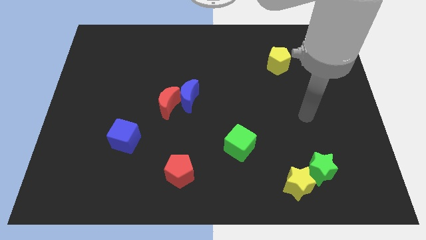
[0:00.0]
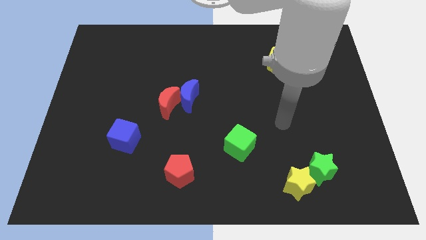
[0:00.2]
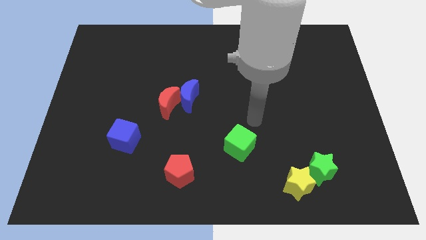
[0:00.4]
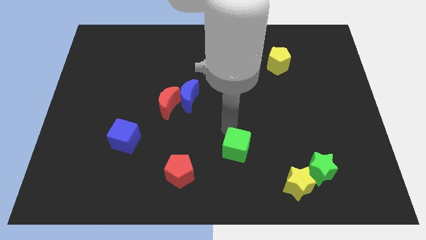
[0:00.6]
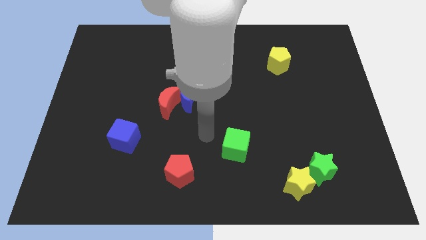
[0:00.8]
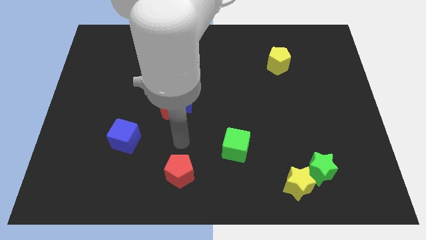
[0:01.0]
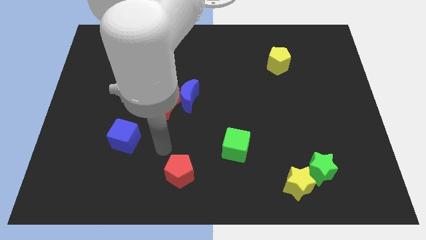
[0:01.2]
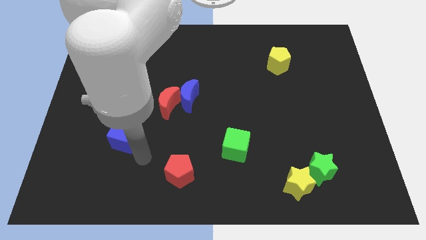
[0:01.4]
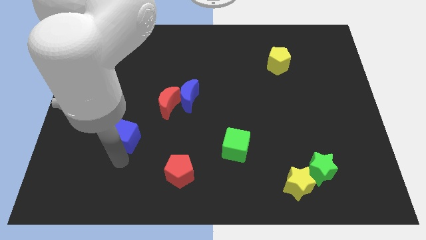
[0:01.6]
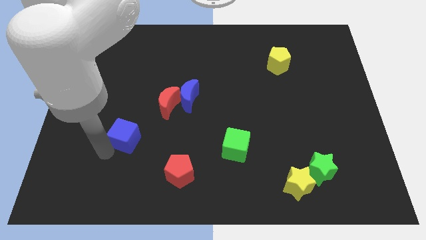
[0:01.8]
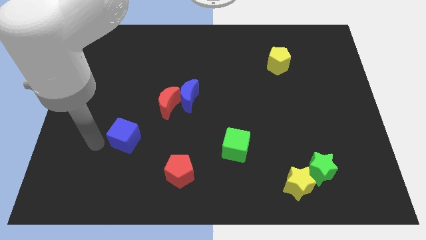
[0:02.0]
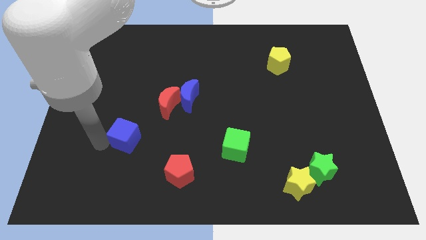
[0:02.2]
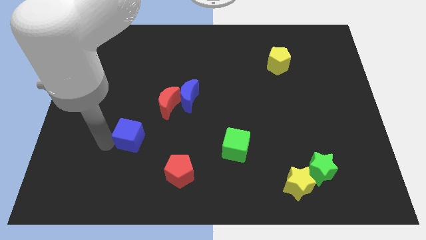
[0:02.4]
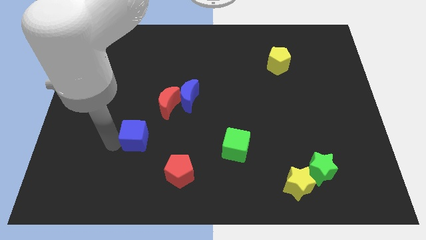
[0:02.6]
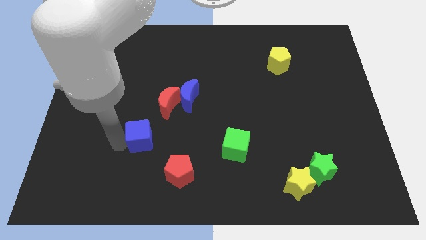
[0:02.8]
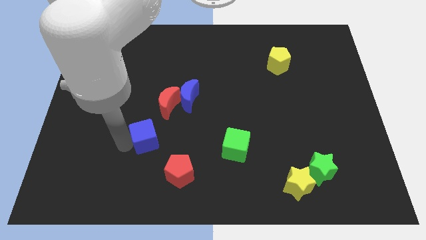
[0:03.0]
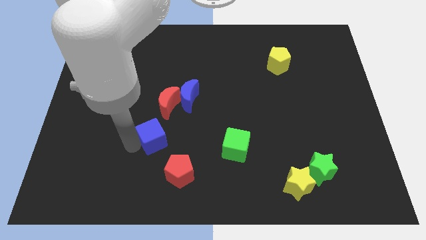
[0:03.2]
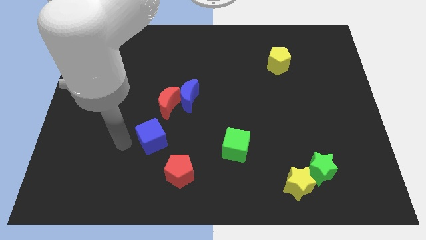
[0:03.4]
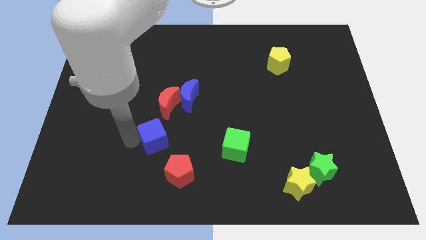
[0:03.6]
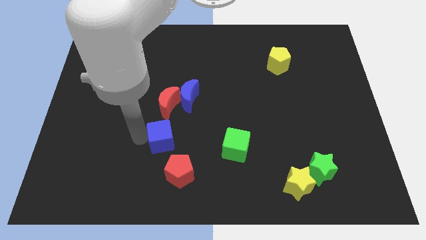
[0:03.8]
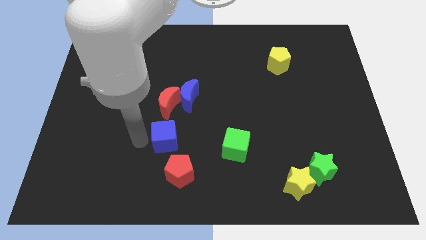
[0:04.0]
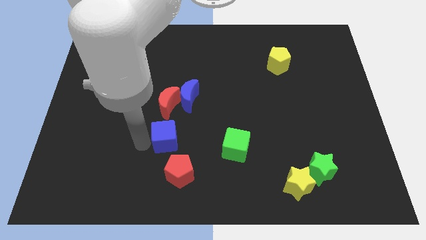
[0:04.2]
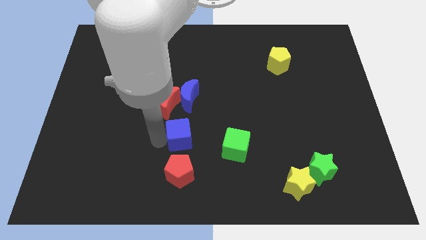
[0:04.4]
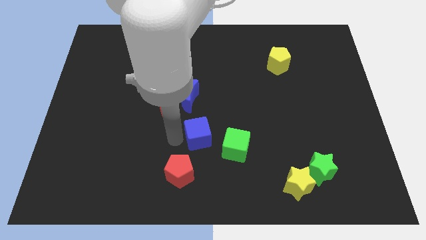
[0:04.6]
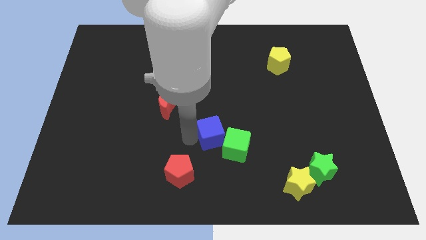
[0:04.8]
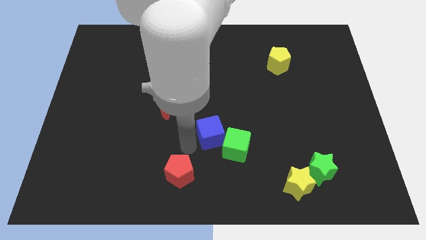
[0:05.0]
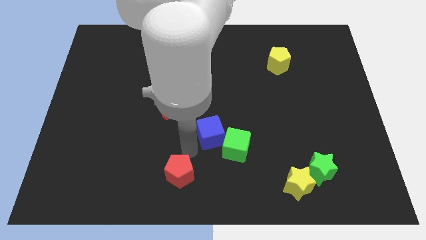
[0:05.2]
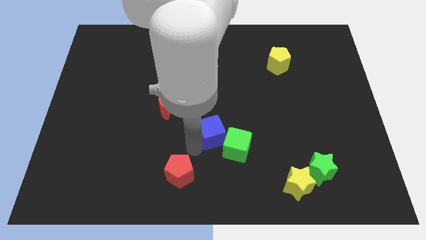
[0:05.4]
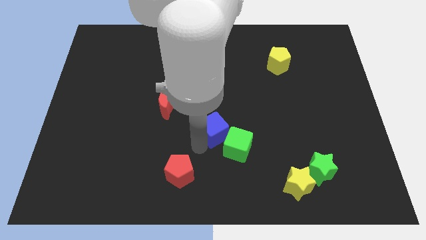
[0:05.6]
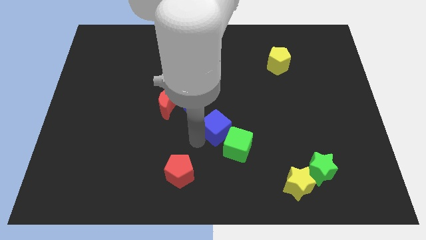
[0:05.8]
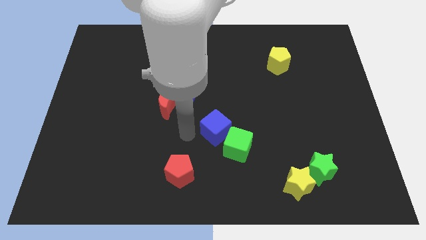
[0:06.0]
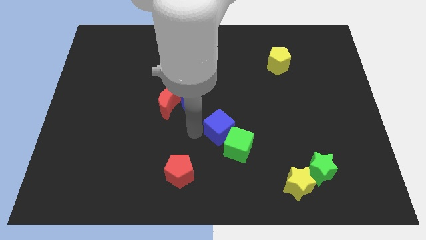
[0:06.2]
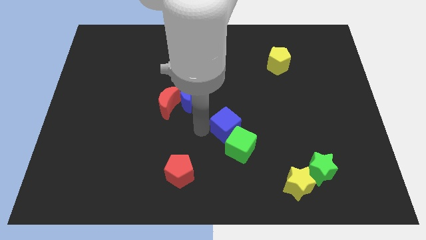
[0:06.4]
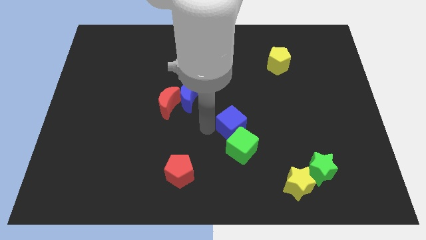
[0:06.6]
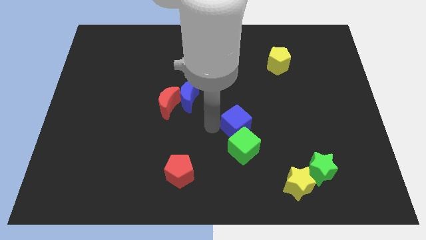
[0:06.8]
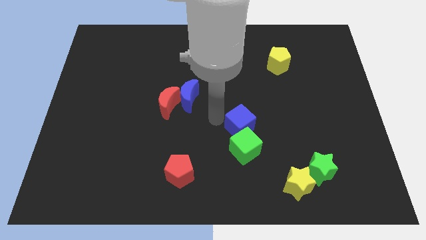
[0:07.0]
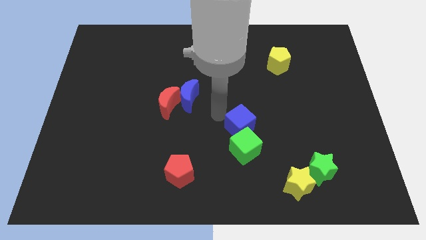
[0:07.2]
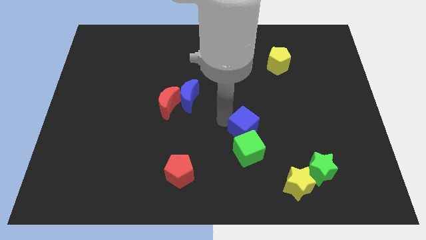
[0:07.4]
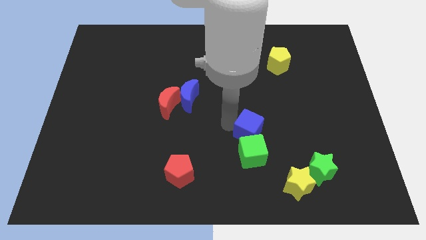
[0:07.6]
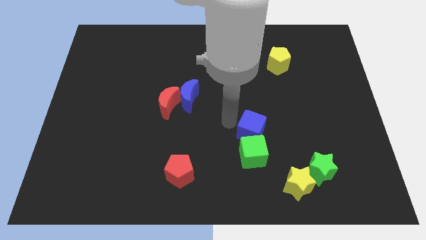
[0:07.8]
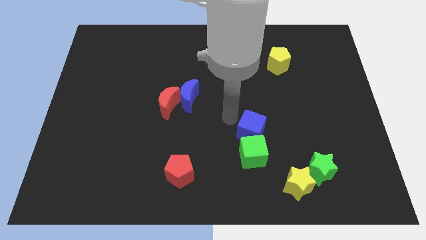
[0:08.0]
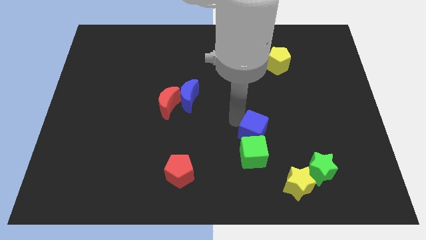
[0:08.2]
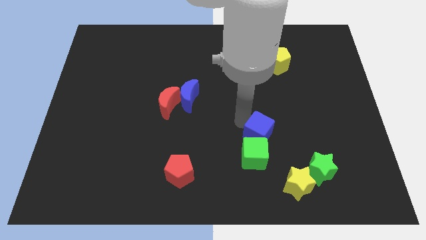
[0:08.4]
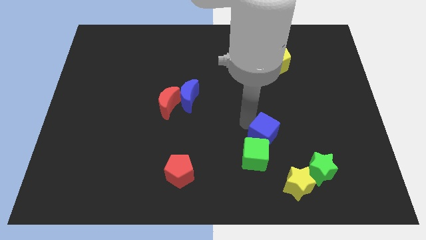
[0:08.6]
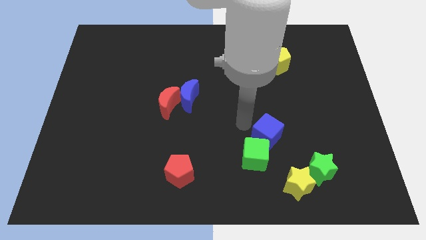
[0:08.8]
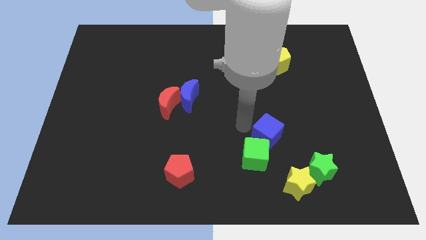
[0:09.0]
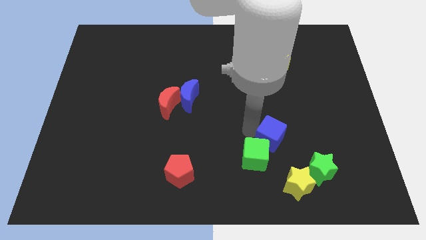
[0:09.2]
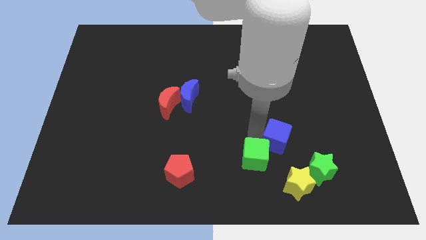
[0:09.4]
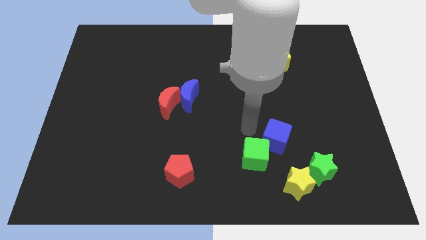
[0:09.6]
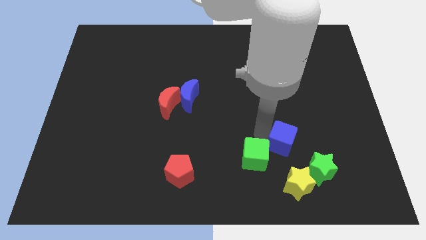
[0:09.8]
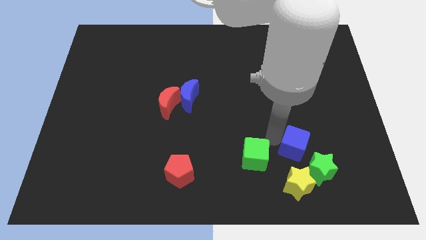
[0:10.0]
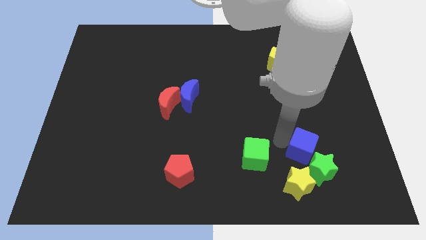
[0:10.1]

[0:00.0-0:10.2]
push the blue cube diagonally up and to the right of the yellow star

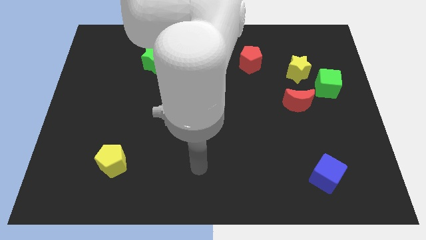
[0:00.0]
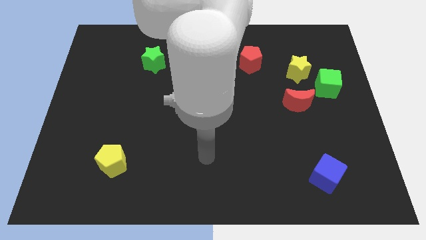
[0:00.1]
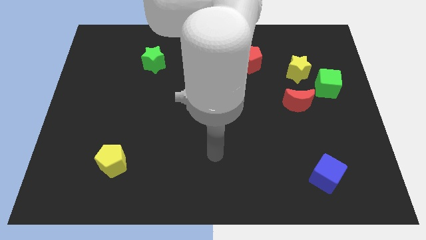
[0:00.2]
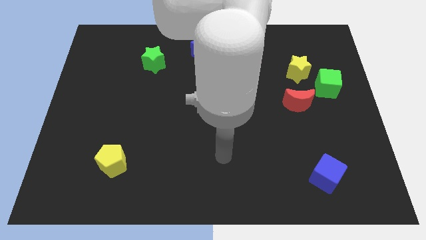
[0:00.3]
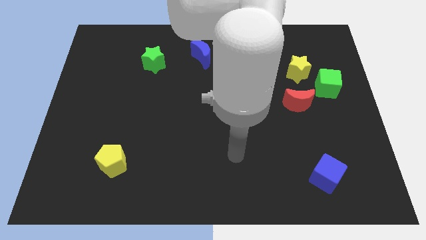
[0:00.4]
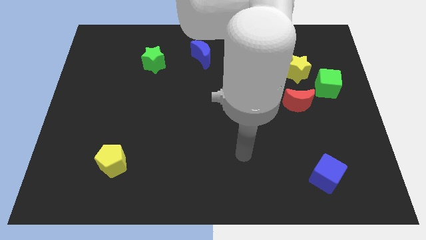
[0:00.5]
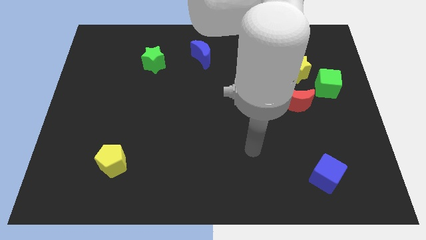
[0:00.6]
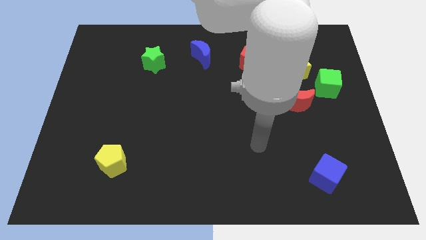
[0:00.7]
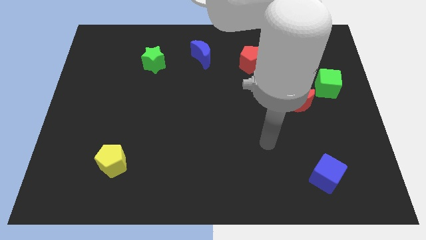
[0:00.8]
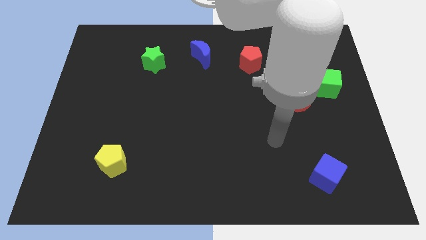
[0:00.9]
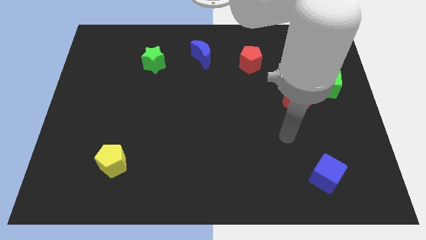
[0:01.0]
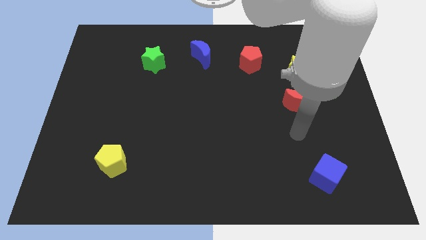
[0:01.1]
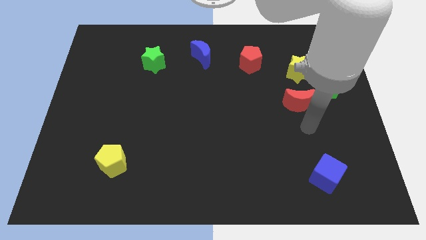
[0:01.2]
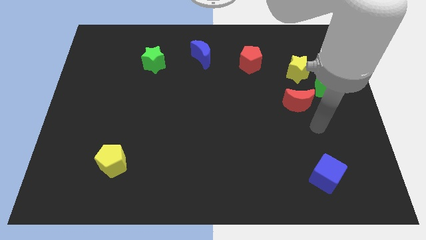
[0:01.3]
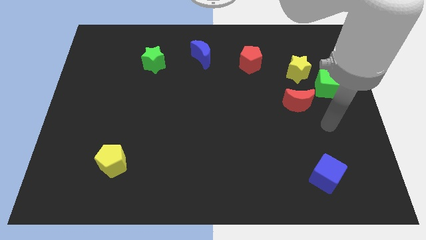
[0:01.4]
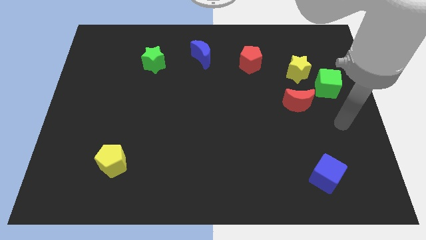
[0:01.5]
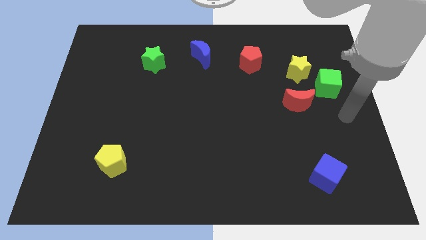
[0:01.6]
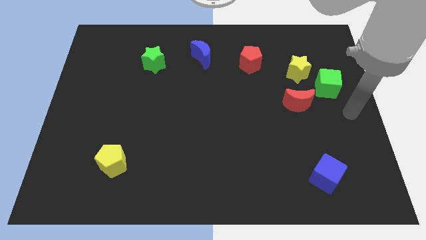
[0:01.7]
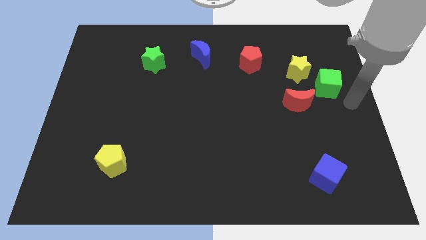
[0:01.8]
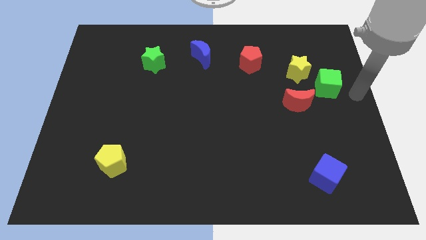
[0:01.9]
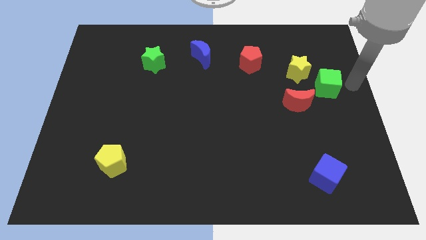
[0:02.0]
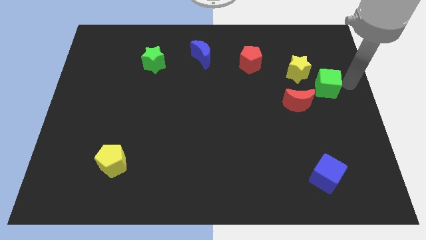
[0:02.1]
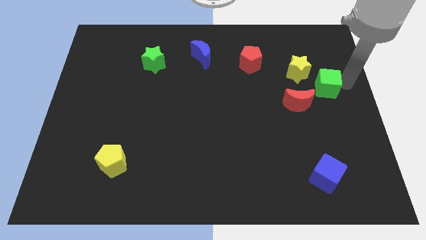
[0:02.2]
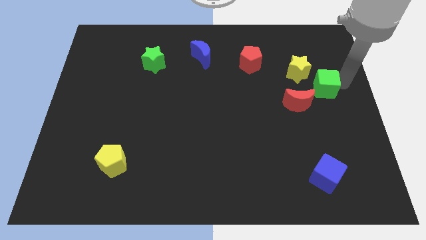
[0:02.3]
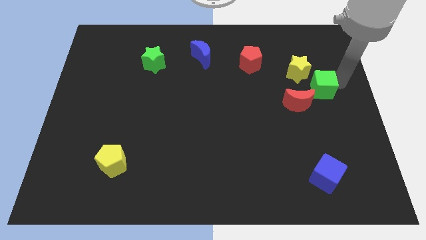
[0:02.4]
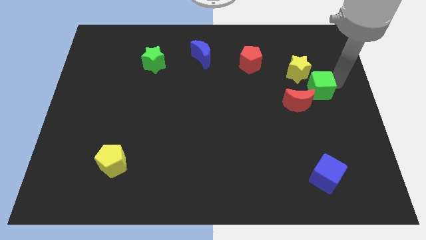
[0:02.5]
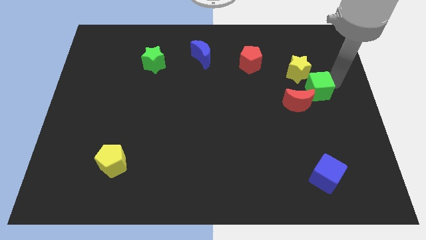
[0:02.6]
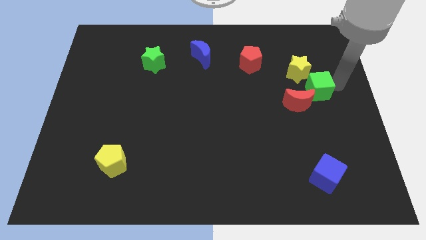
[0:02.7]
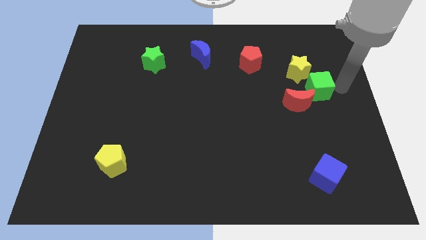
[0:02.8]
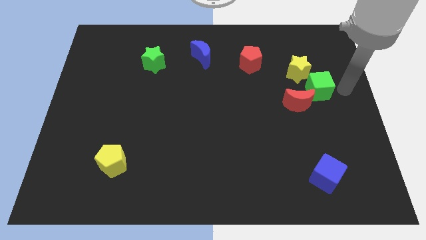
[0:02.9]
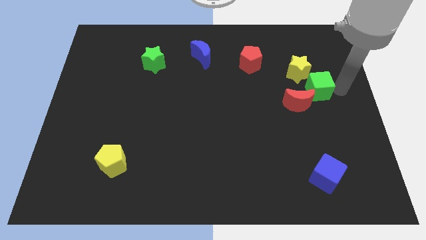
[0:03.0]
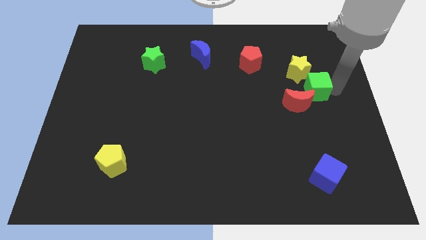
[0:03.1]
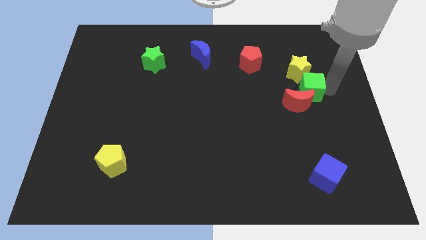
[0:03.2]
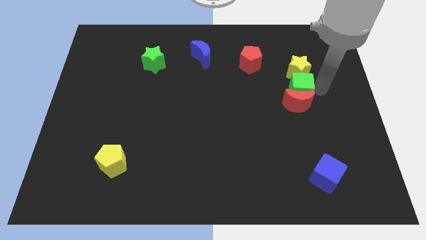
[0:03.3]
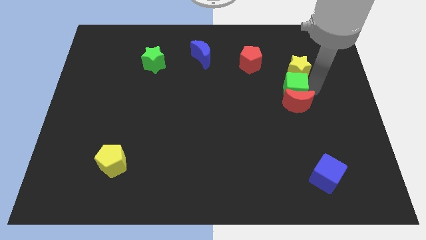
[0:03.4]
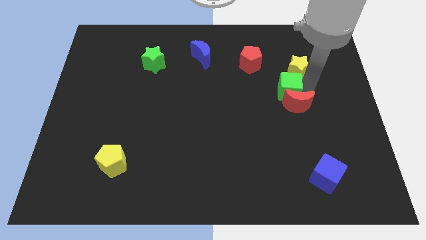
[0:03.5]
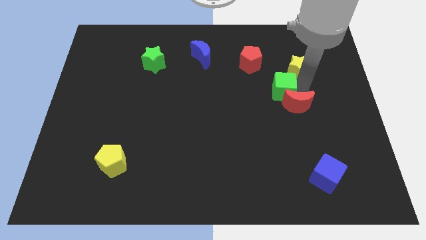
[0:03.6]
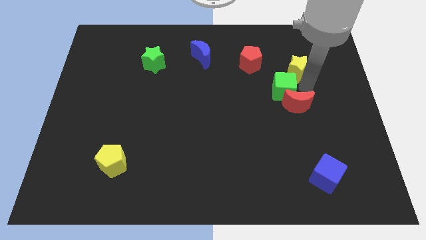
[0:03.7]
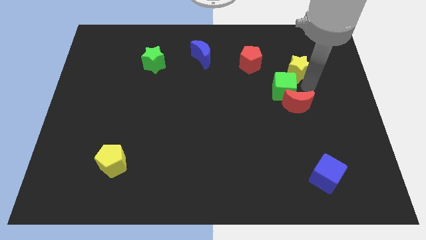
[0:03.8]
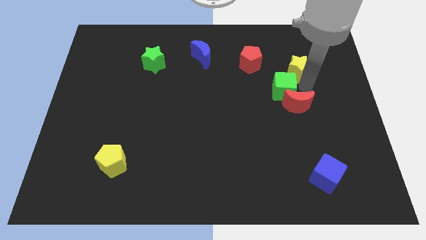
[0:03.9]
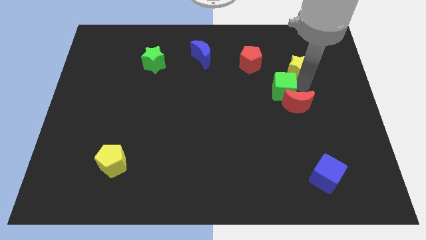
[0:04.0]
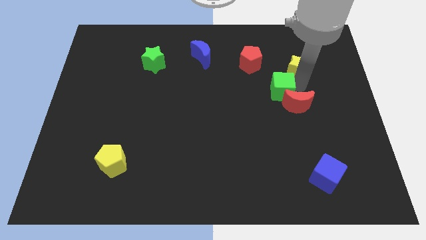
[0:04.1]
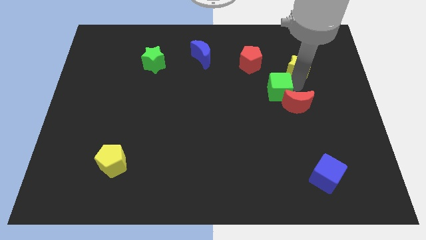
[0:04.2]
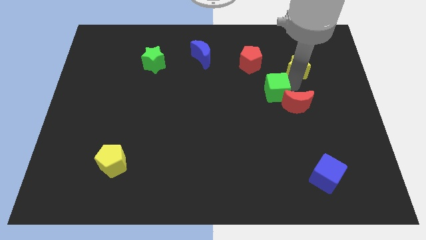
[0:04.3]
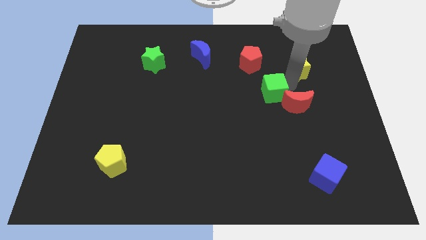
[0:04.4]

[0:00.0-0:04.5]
slide the green cube to the bottom side of the red pentagon
